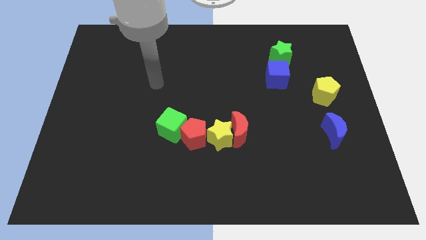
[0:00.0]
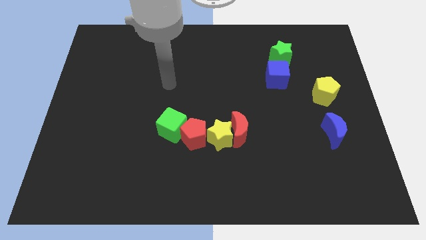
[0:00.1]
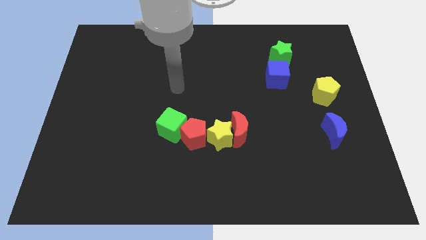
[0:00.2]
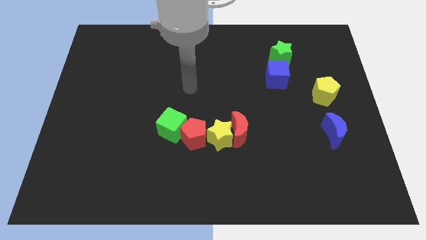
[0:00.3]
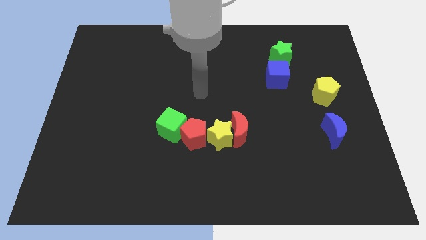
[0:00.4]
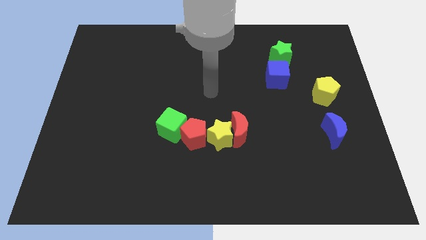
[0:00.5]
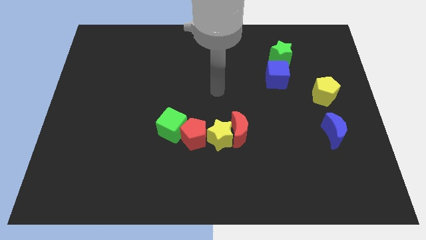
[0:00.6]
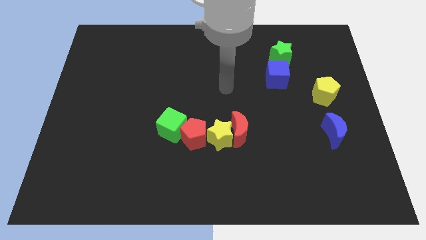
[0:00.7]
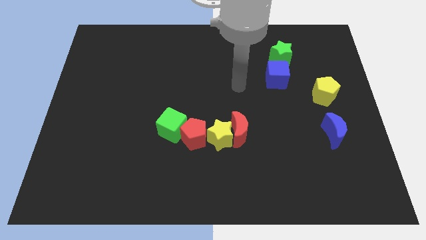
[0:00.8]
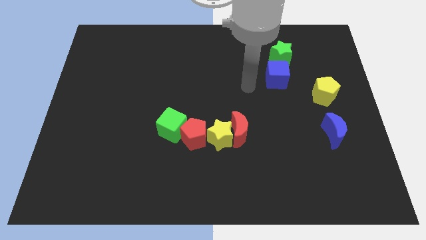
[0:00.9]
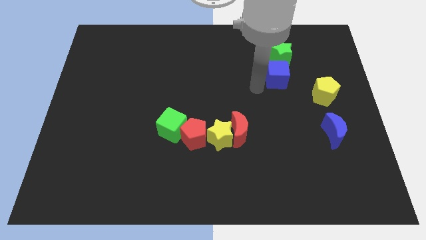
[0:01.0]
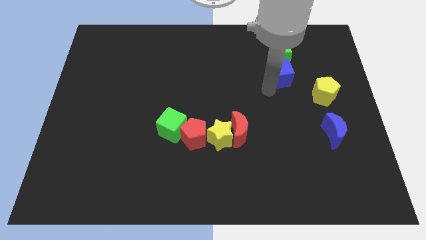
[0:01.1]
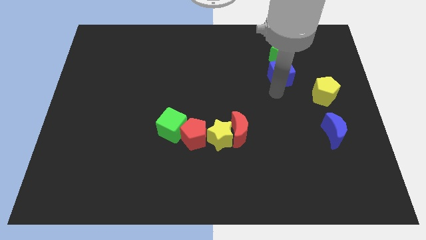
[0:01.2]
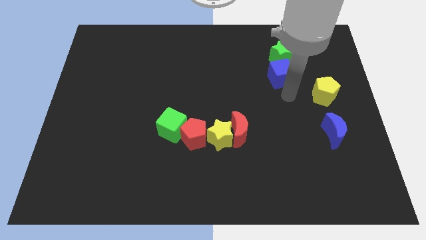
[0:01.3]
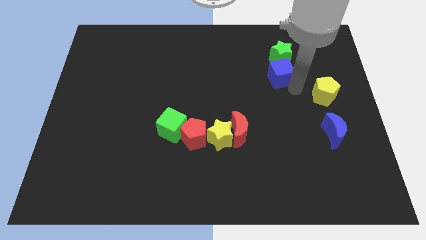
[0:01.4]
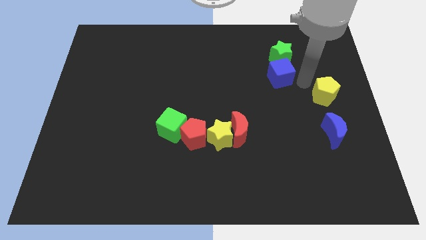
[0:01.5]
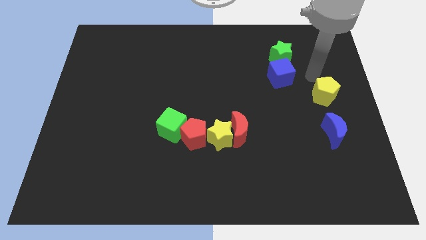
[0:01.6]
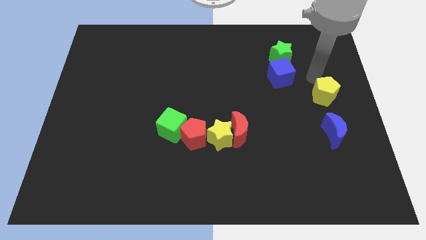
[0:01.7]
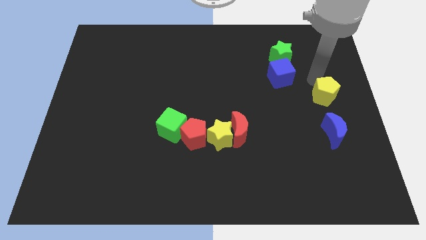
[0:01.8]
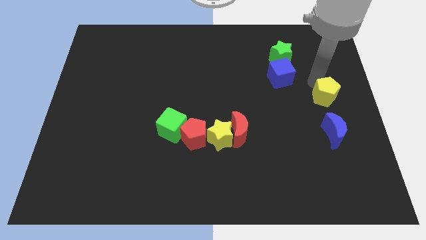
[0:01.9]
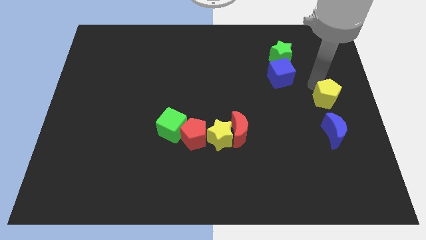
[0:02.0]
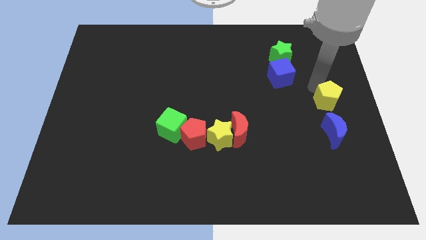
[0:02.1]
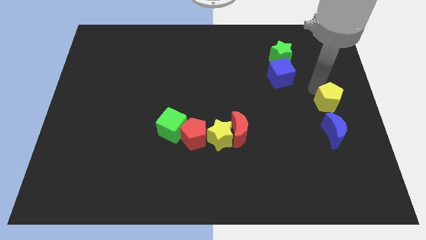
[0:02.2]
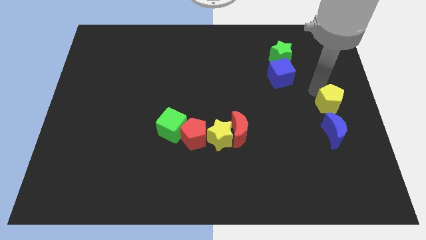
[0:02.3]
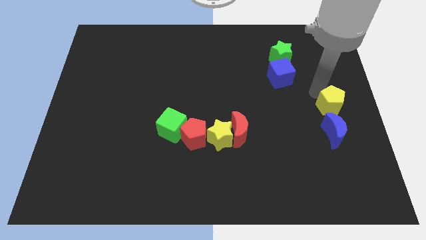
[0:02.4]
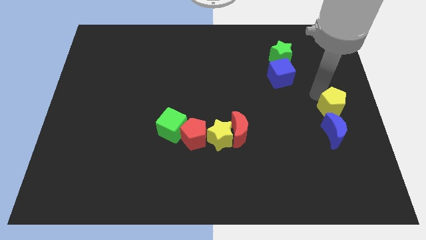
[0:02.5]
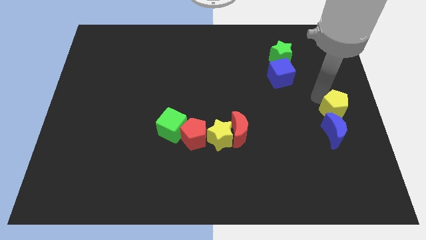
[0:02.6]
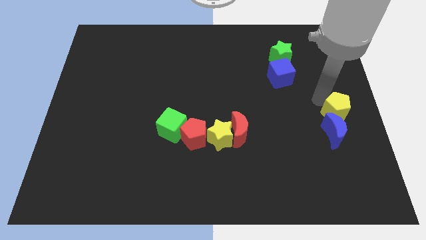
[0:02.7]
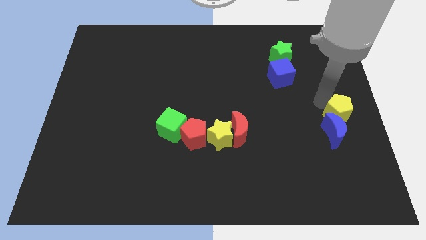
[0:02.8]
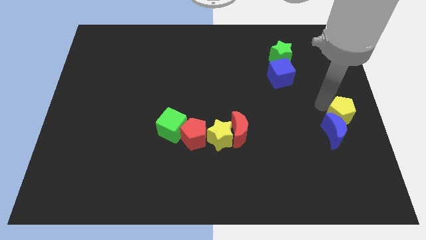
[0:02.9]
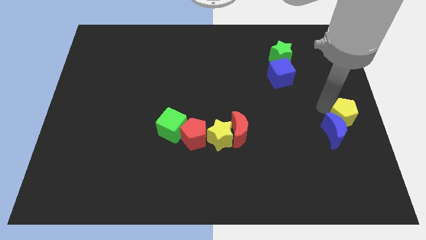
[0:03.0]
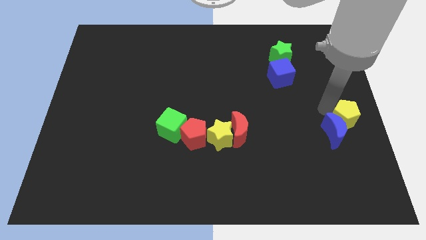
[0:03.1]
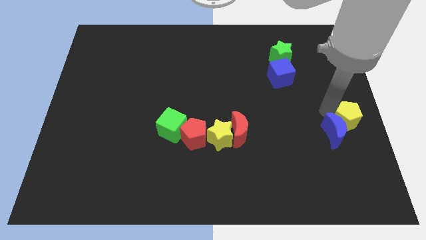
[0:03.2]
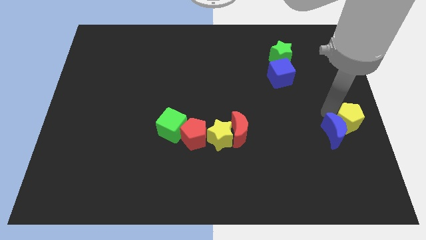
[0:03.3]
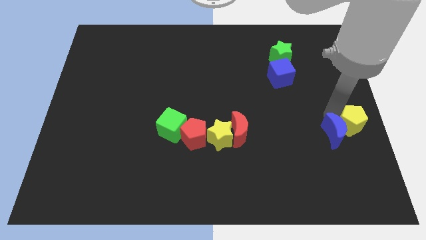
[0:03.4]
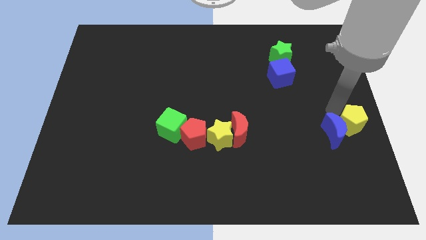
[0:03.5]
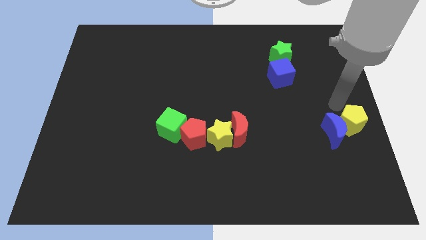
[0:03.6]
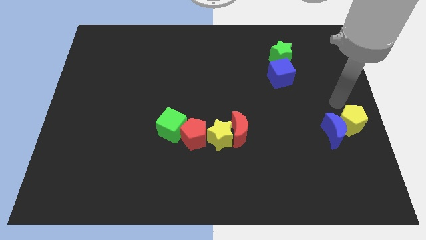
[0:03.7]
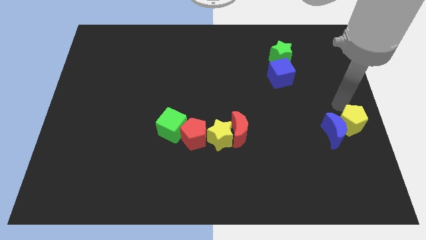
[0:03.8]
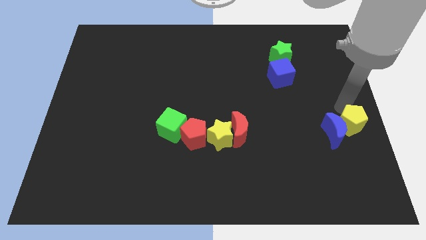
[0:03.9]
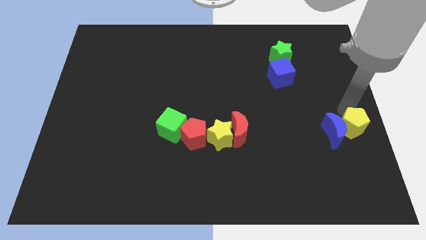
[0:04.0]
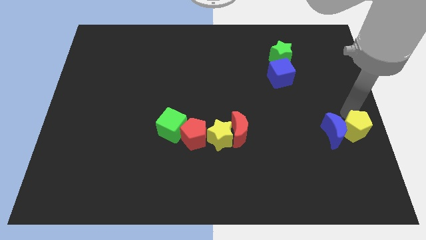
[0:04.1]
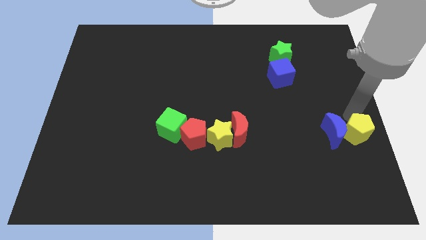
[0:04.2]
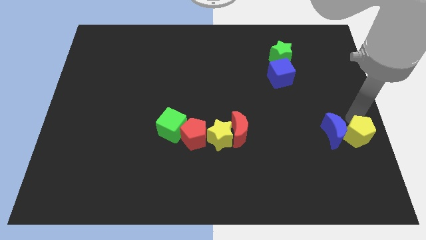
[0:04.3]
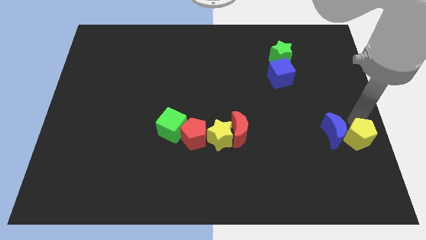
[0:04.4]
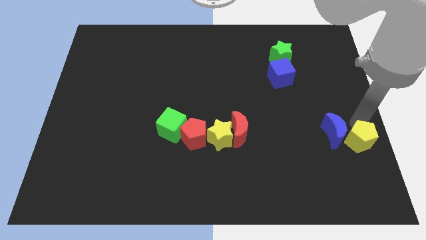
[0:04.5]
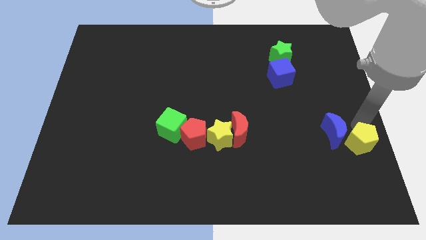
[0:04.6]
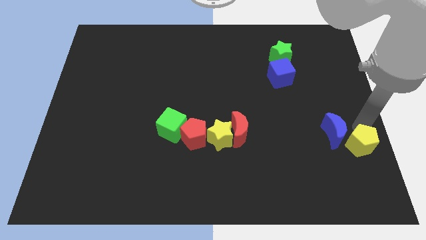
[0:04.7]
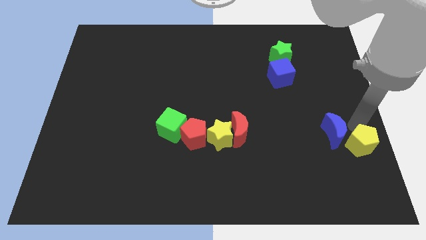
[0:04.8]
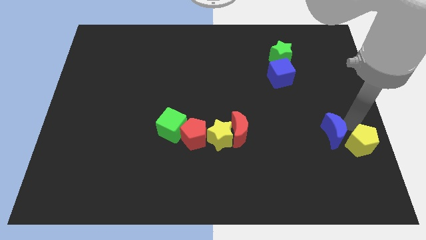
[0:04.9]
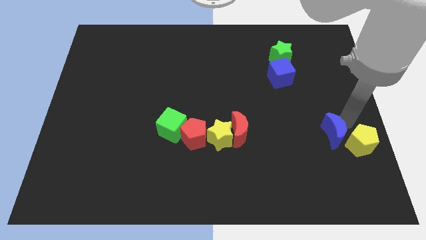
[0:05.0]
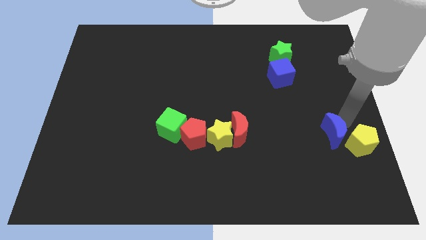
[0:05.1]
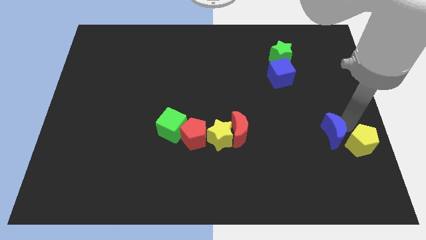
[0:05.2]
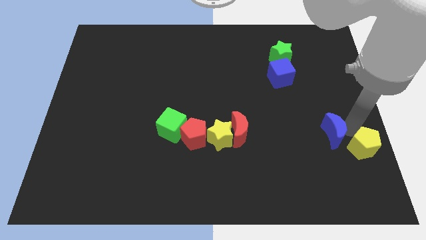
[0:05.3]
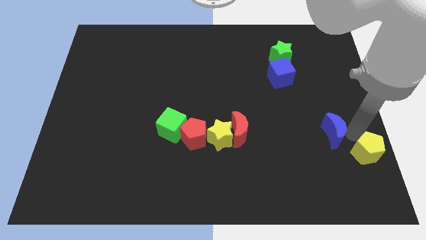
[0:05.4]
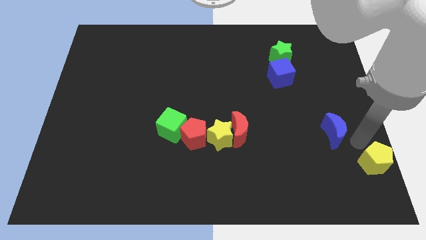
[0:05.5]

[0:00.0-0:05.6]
push the yellow pentagon to the bottom right corner

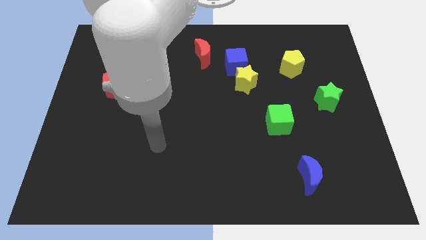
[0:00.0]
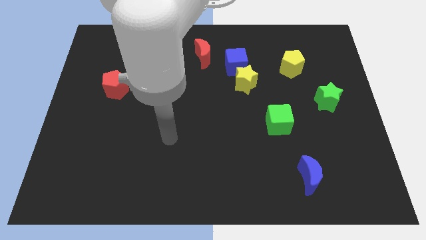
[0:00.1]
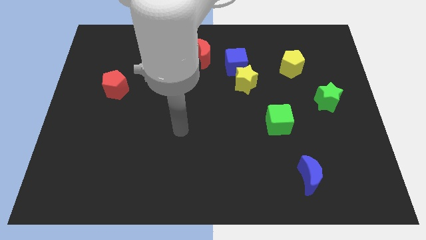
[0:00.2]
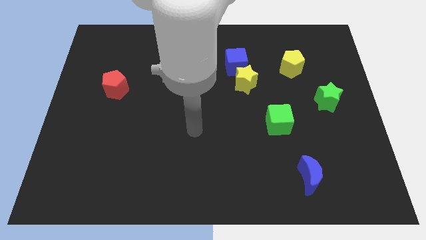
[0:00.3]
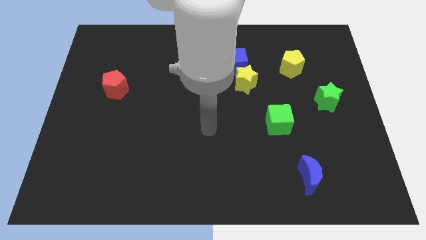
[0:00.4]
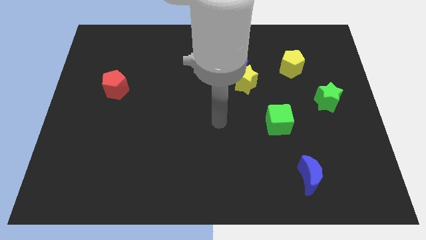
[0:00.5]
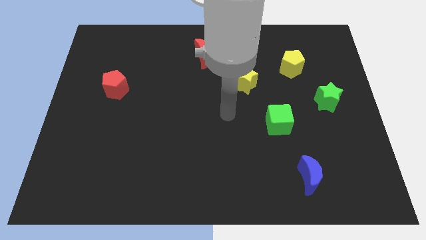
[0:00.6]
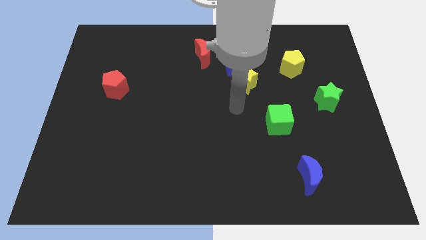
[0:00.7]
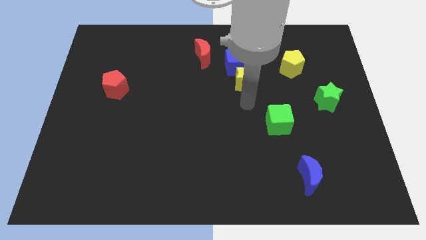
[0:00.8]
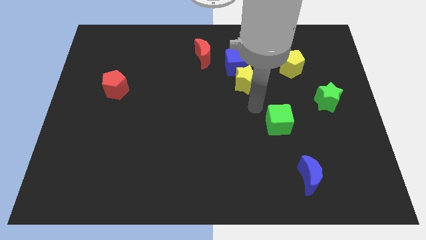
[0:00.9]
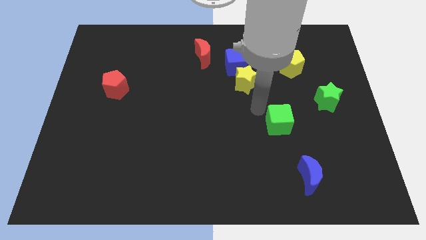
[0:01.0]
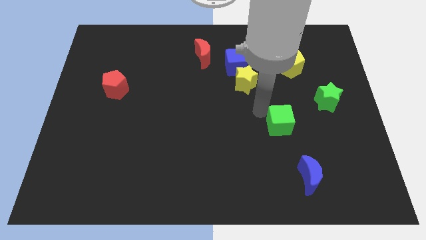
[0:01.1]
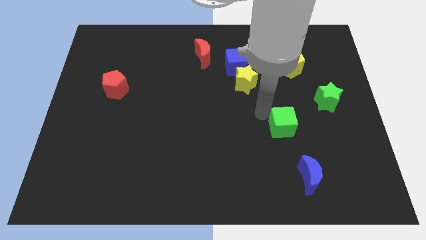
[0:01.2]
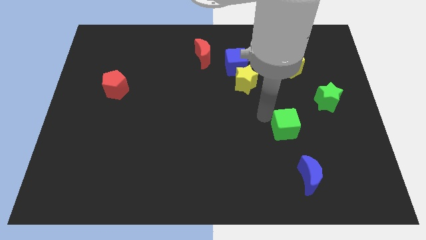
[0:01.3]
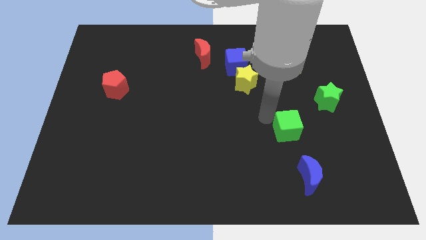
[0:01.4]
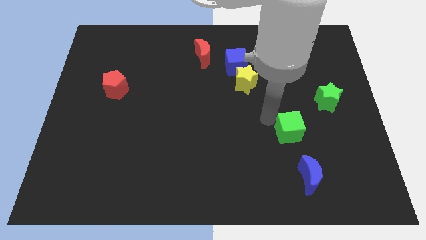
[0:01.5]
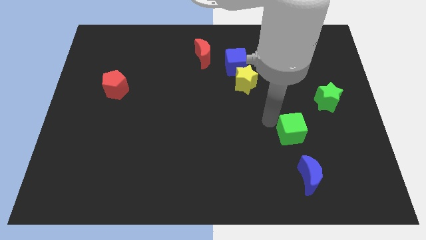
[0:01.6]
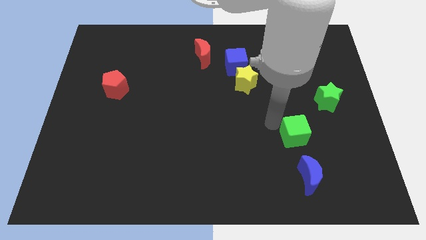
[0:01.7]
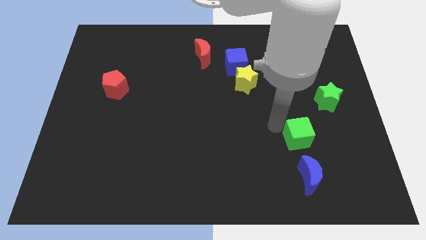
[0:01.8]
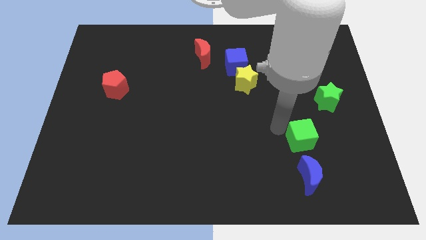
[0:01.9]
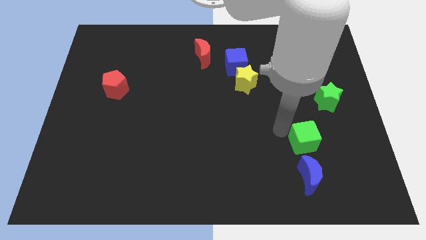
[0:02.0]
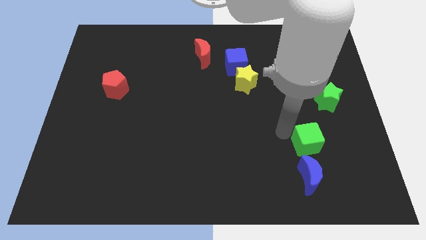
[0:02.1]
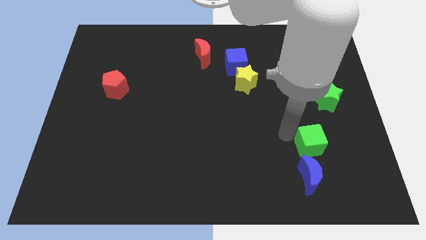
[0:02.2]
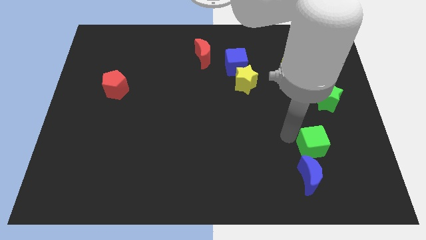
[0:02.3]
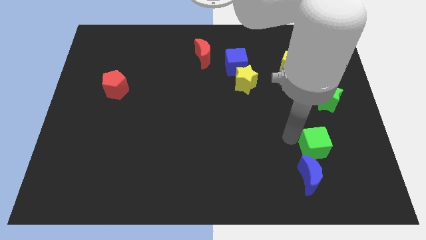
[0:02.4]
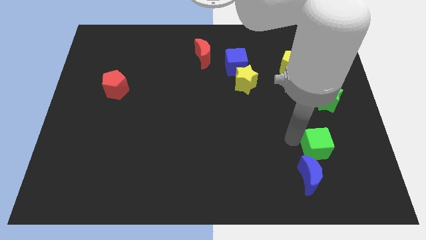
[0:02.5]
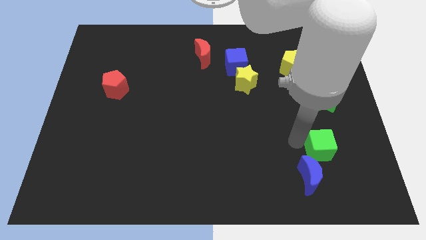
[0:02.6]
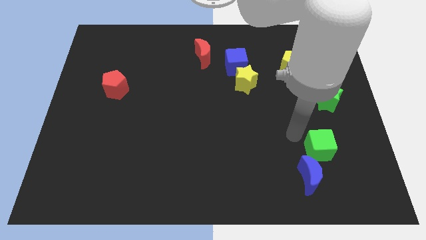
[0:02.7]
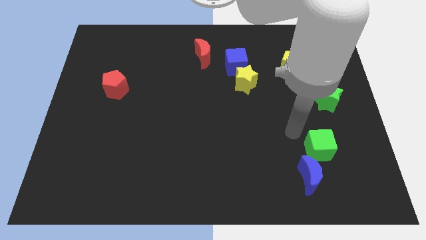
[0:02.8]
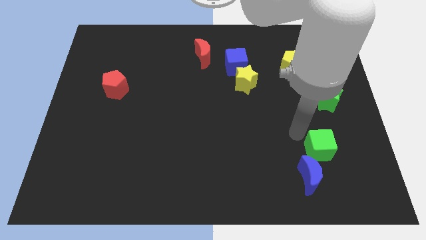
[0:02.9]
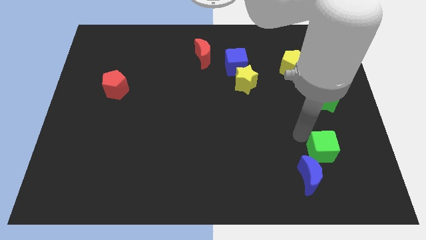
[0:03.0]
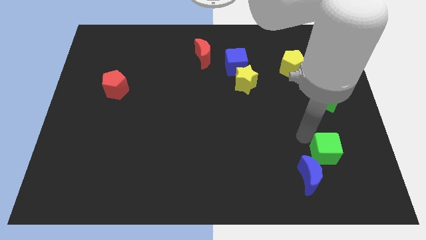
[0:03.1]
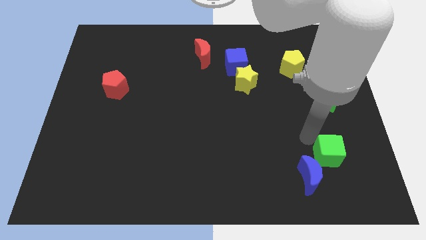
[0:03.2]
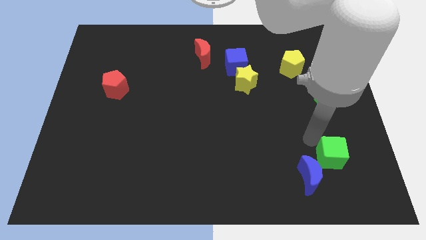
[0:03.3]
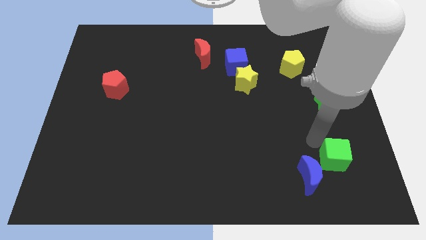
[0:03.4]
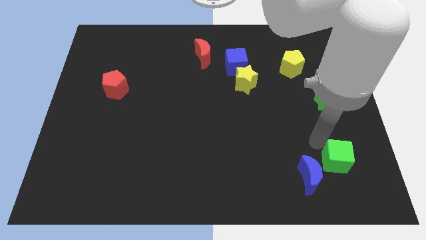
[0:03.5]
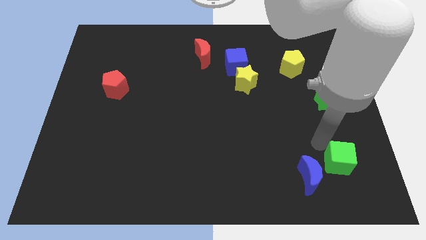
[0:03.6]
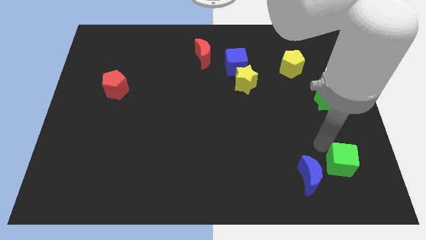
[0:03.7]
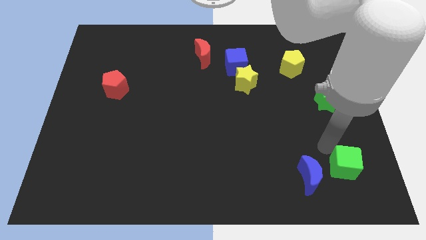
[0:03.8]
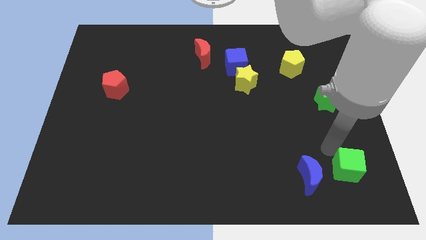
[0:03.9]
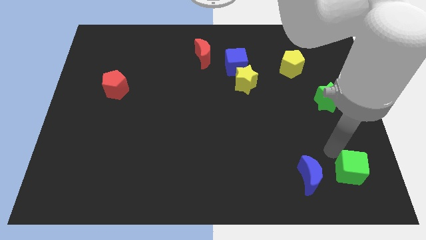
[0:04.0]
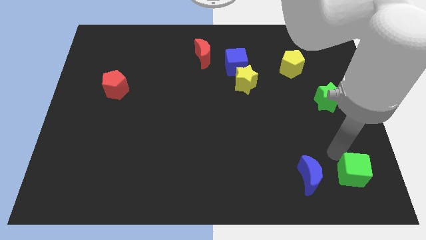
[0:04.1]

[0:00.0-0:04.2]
push the green cube to the bottom right corner
